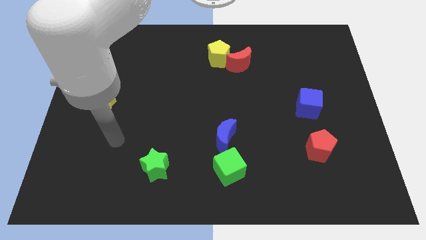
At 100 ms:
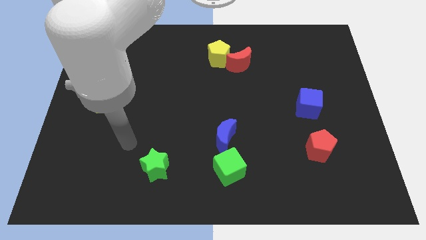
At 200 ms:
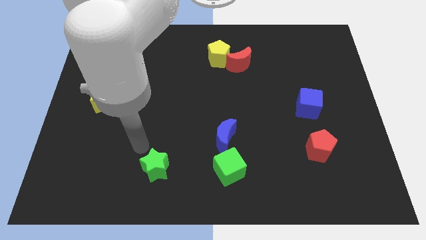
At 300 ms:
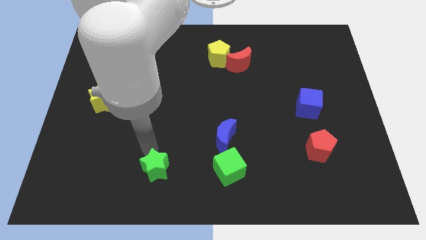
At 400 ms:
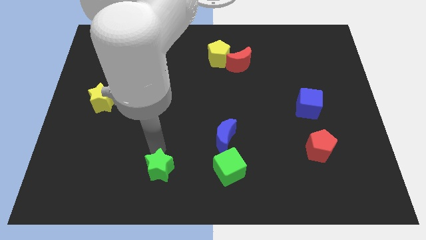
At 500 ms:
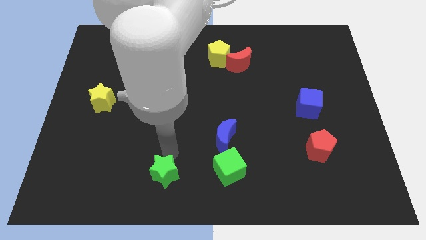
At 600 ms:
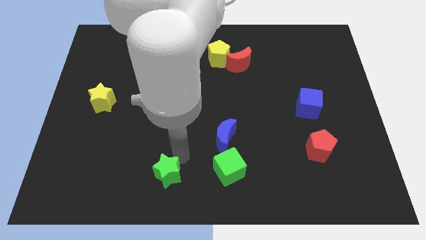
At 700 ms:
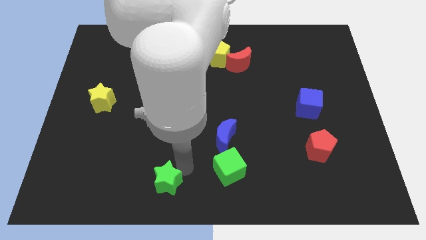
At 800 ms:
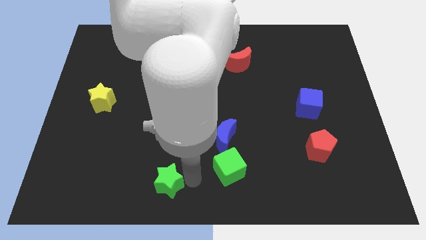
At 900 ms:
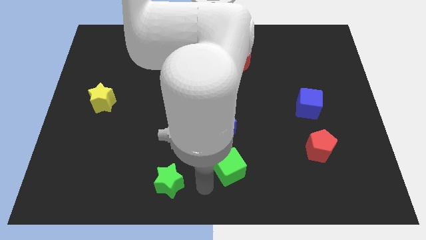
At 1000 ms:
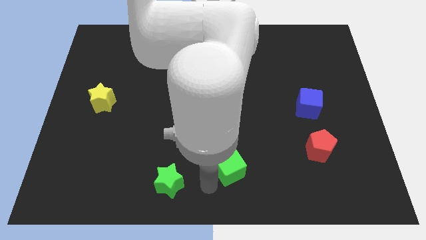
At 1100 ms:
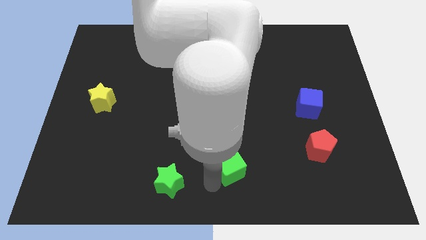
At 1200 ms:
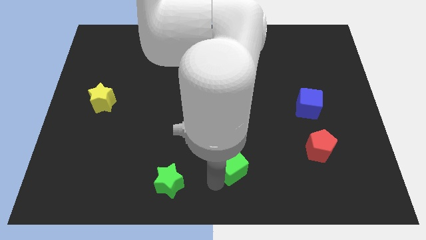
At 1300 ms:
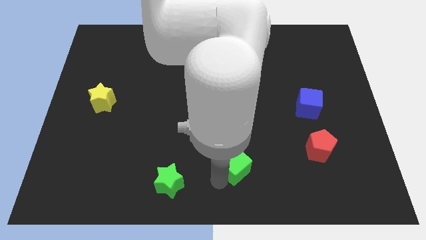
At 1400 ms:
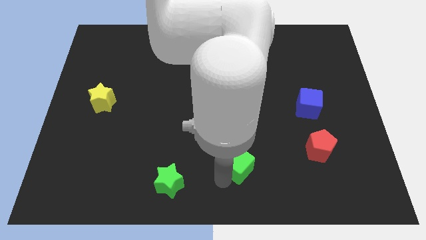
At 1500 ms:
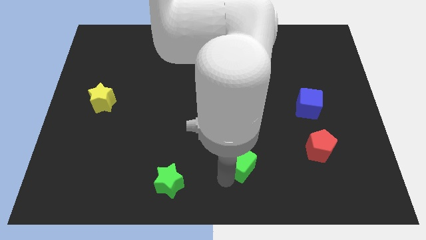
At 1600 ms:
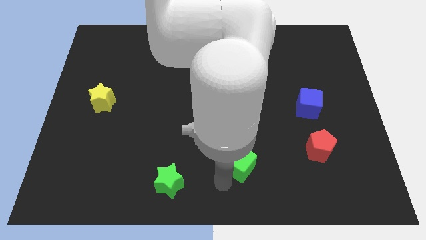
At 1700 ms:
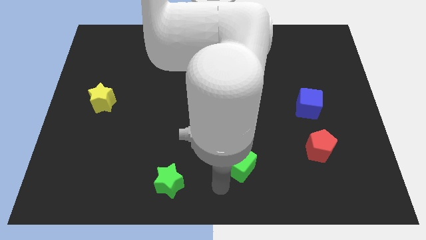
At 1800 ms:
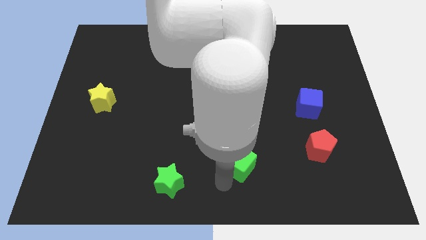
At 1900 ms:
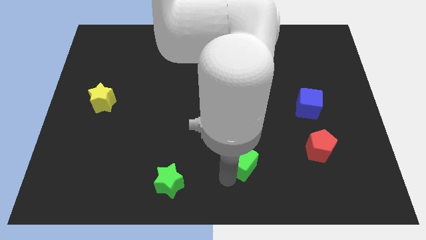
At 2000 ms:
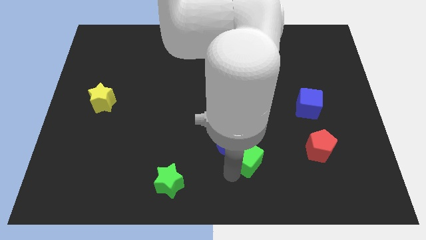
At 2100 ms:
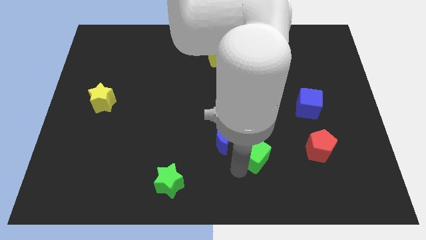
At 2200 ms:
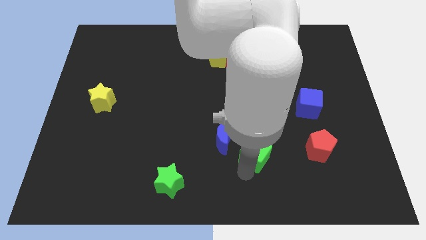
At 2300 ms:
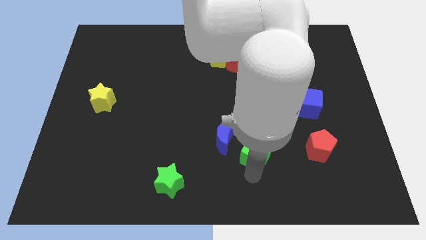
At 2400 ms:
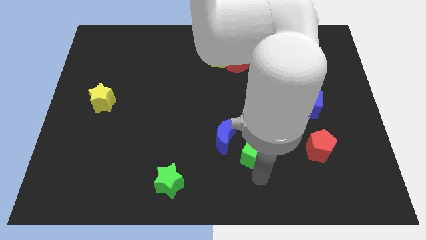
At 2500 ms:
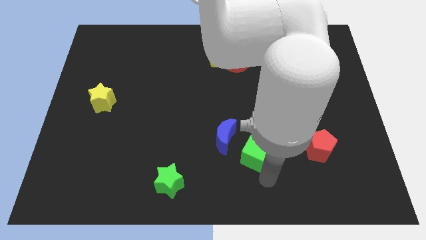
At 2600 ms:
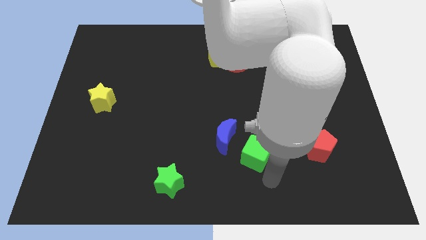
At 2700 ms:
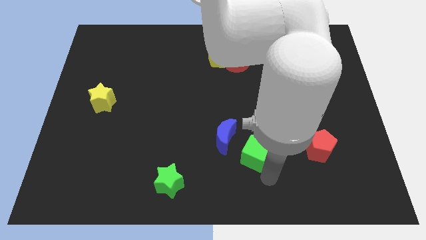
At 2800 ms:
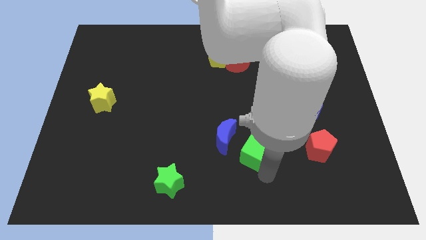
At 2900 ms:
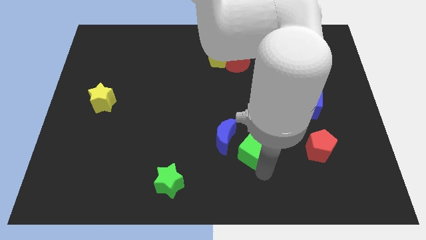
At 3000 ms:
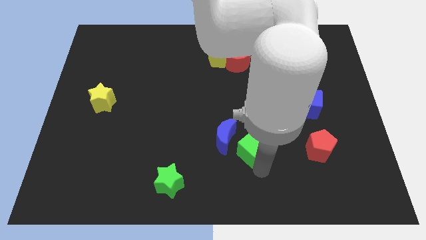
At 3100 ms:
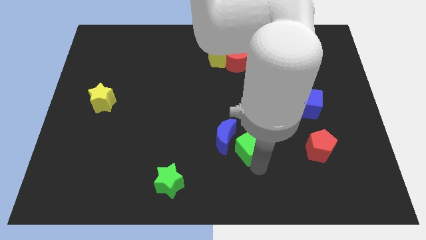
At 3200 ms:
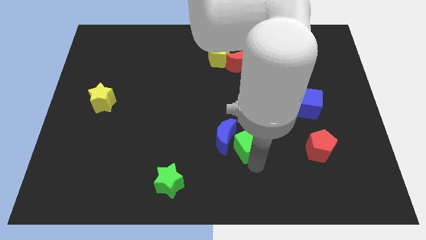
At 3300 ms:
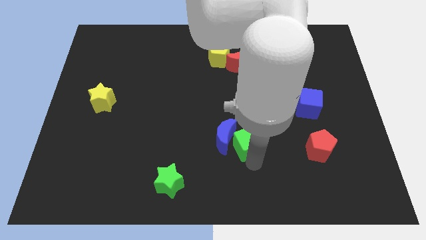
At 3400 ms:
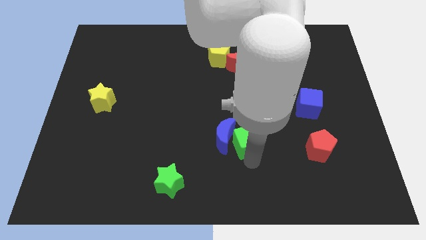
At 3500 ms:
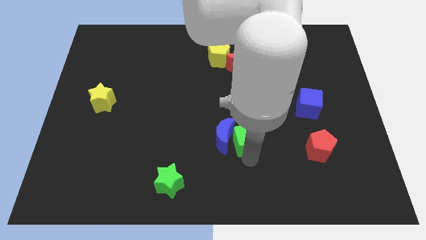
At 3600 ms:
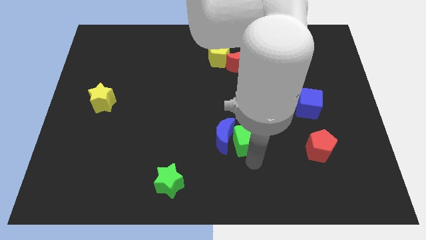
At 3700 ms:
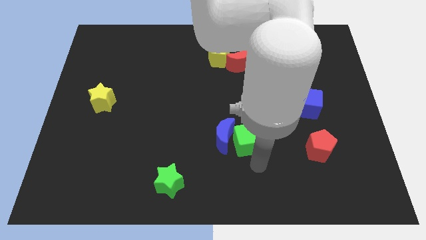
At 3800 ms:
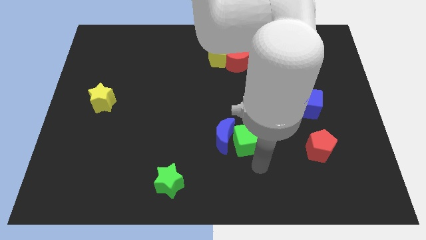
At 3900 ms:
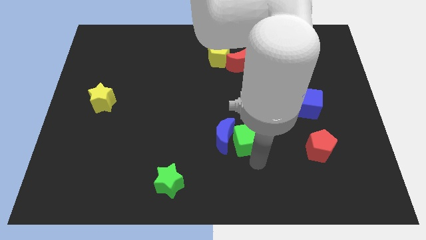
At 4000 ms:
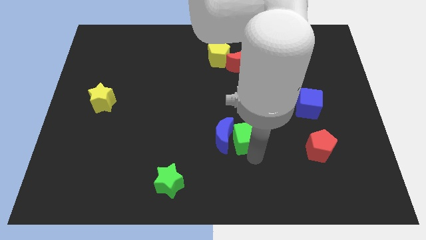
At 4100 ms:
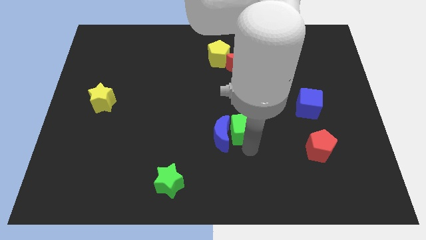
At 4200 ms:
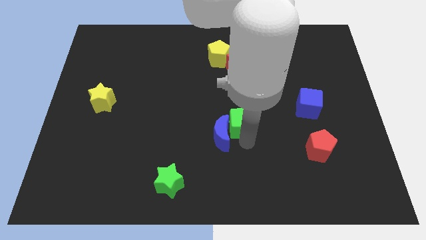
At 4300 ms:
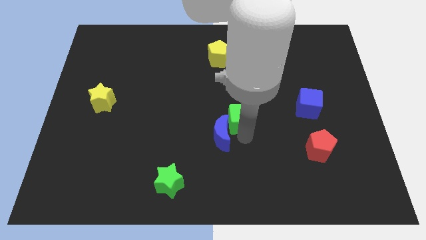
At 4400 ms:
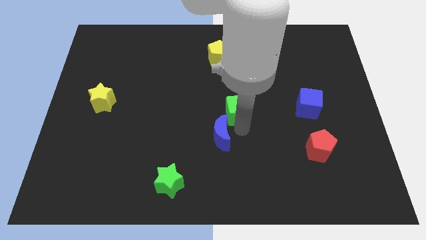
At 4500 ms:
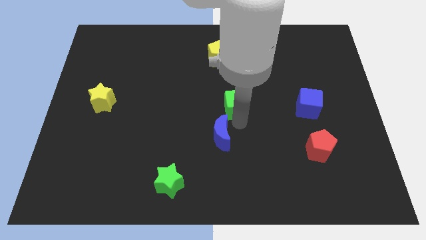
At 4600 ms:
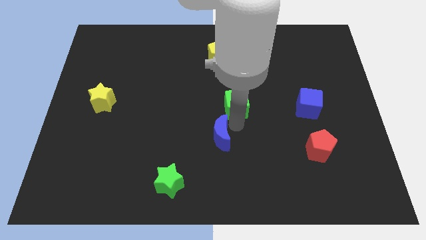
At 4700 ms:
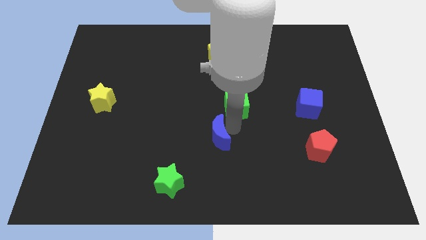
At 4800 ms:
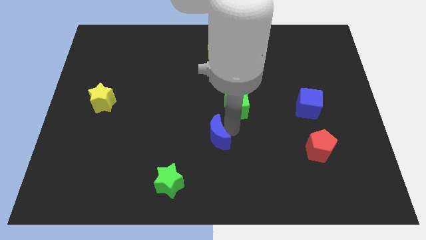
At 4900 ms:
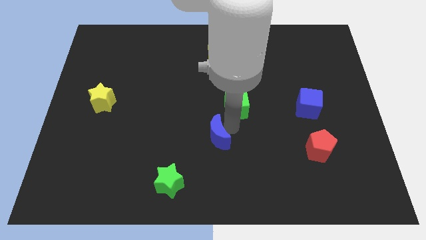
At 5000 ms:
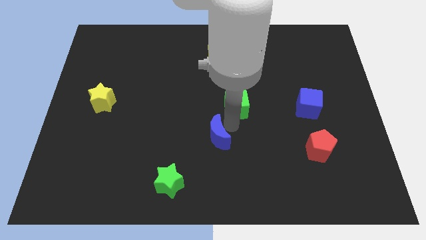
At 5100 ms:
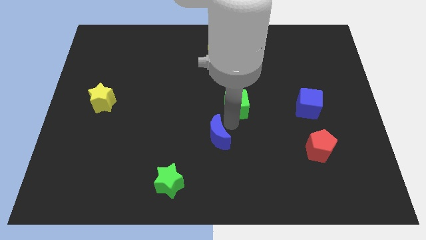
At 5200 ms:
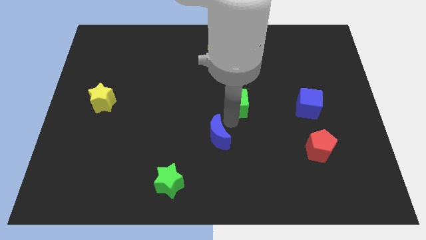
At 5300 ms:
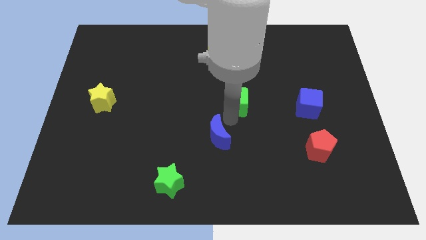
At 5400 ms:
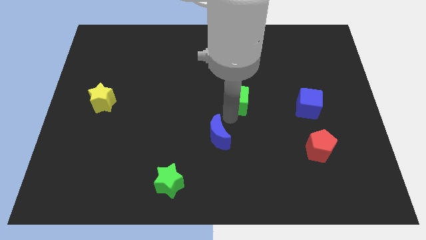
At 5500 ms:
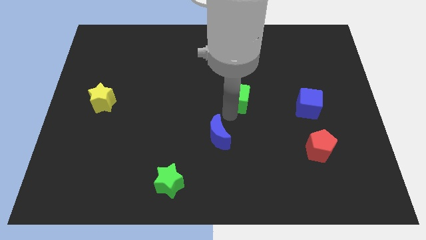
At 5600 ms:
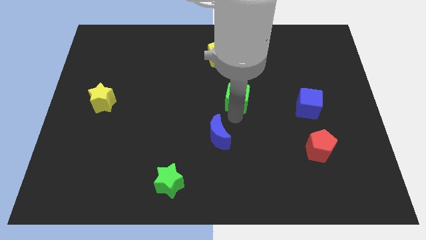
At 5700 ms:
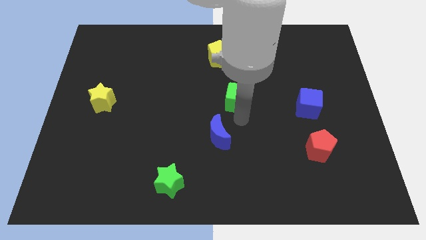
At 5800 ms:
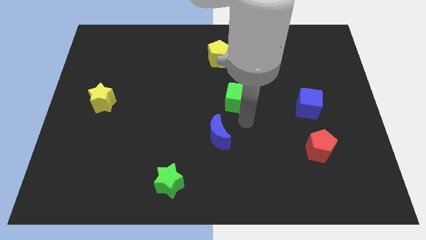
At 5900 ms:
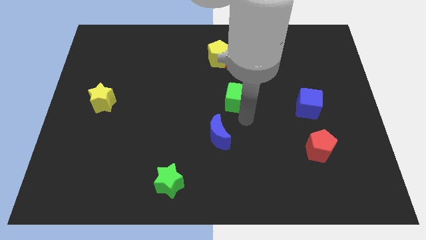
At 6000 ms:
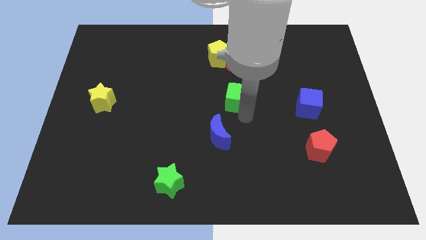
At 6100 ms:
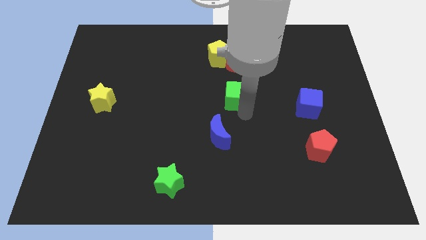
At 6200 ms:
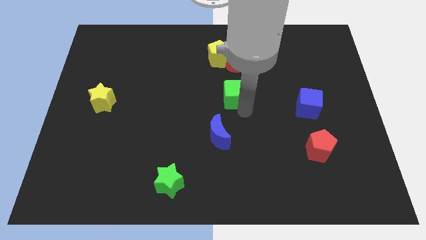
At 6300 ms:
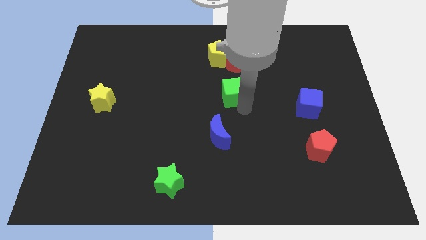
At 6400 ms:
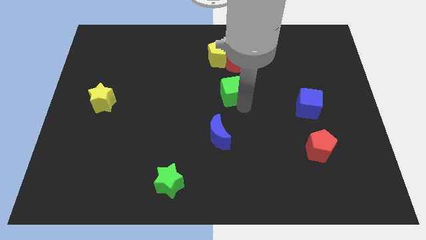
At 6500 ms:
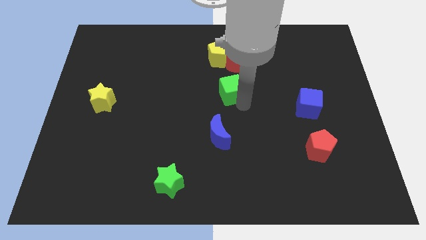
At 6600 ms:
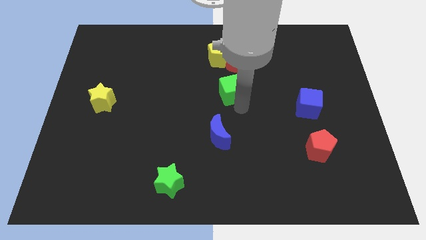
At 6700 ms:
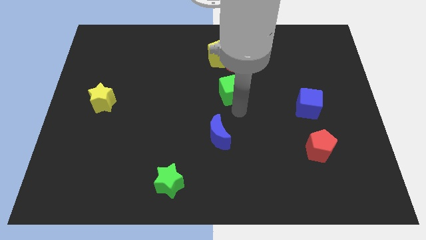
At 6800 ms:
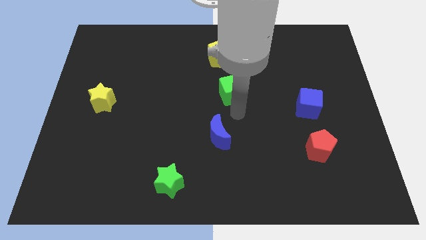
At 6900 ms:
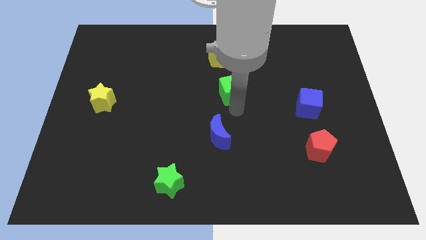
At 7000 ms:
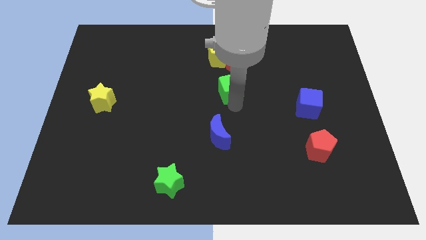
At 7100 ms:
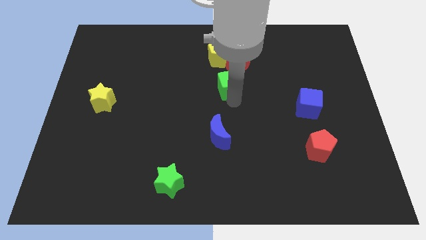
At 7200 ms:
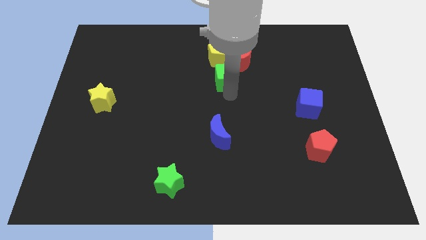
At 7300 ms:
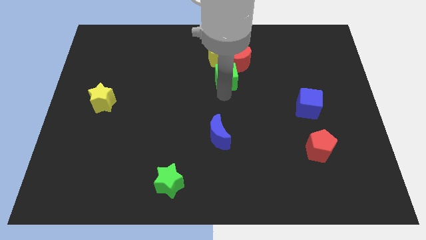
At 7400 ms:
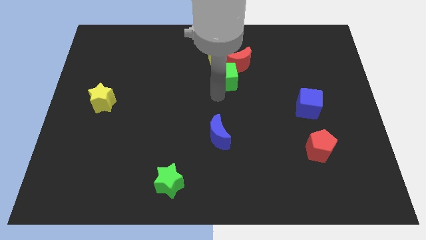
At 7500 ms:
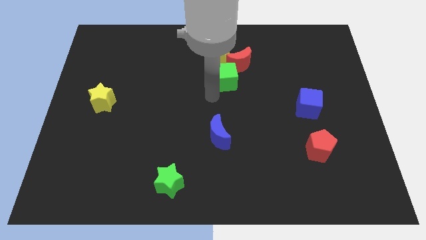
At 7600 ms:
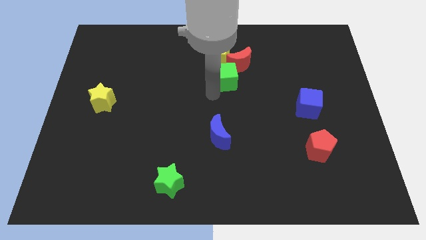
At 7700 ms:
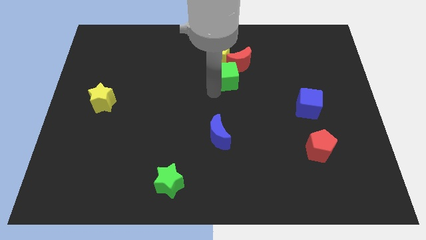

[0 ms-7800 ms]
push the green cube next to the red moon
